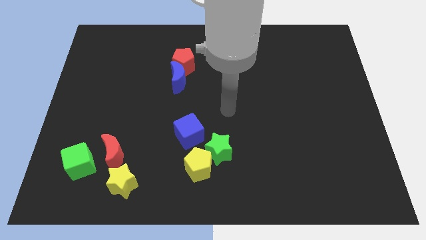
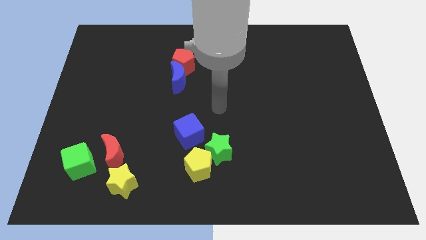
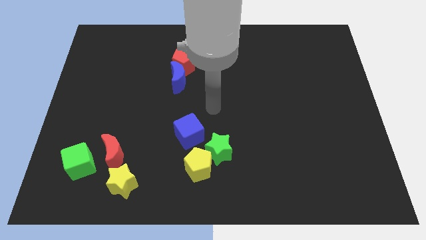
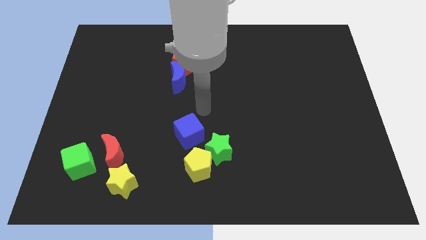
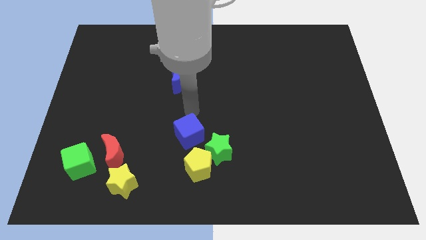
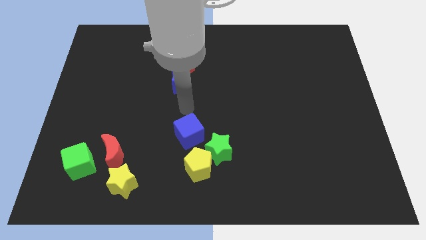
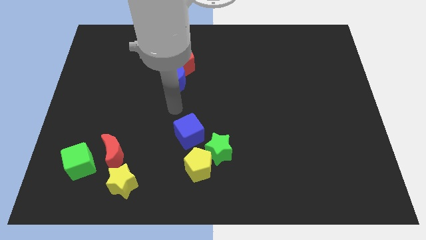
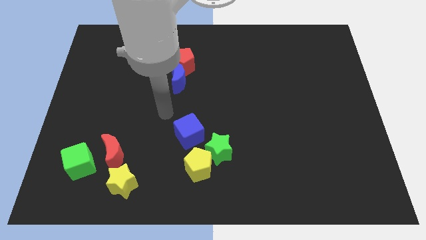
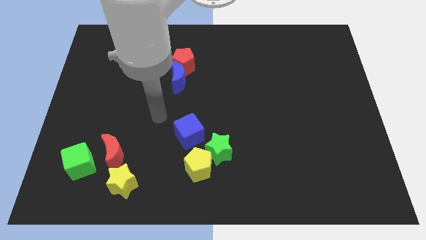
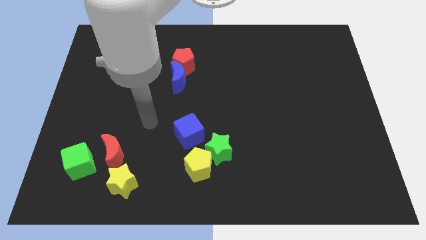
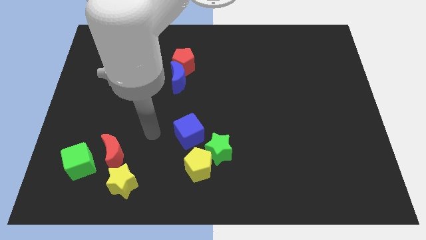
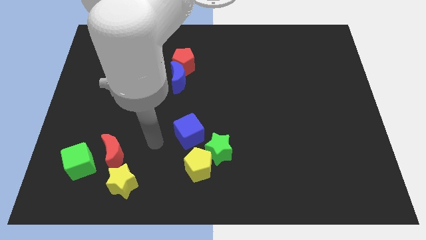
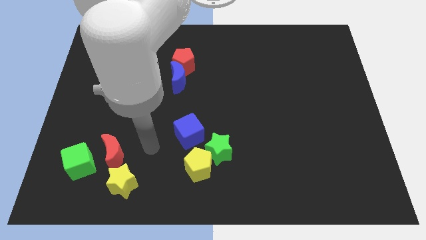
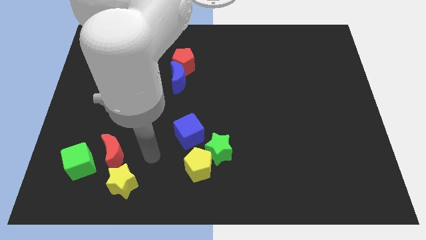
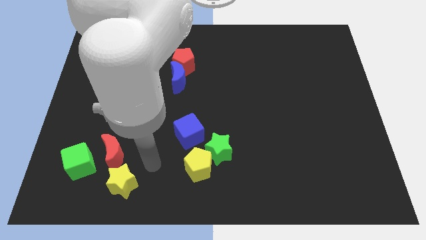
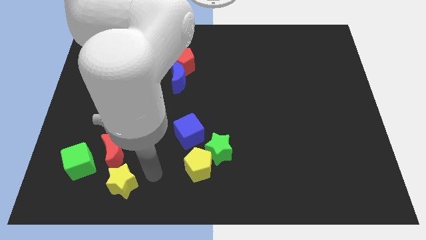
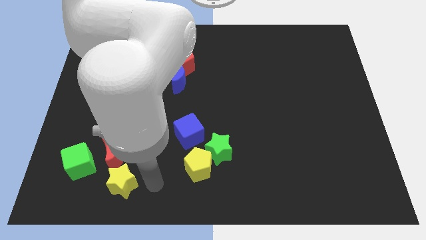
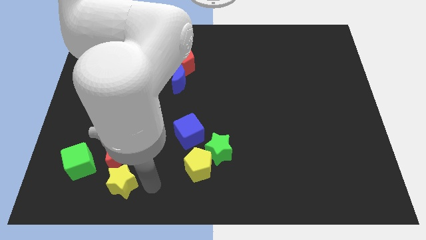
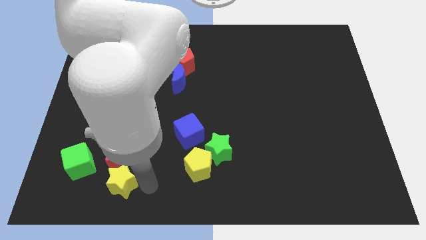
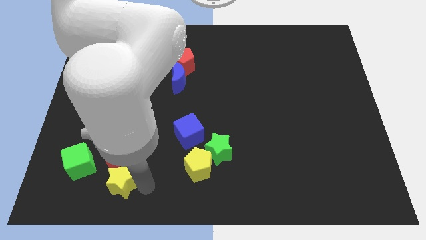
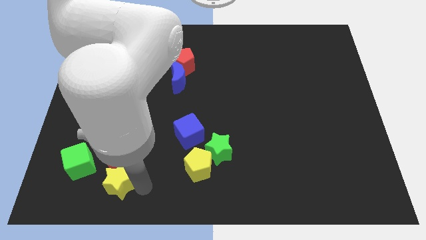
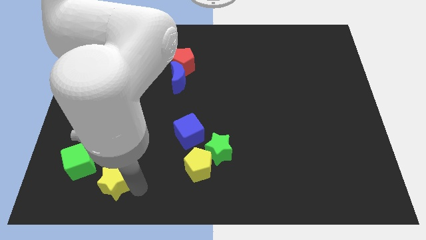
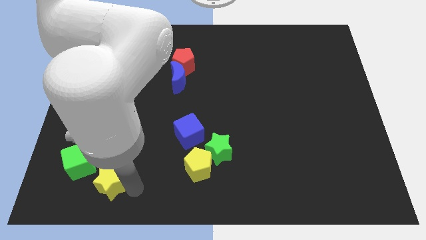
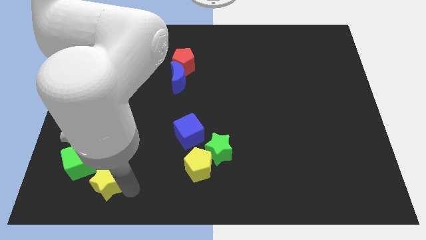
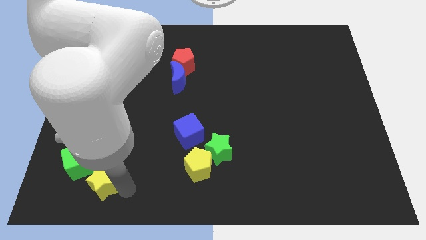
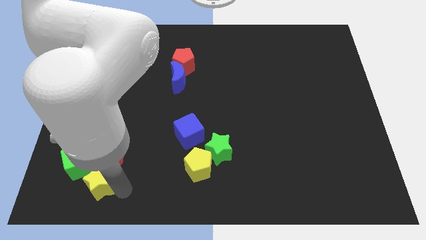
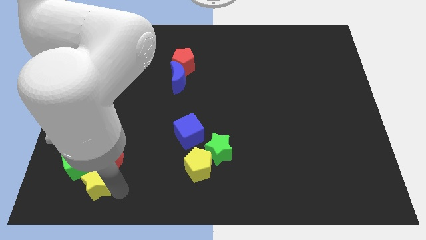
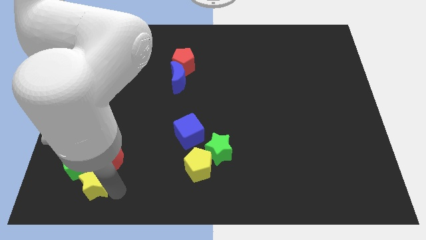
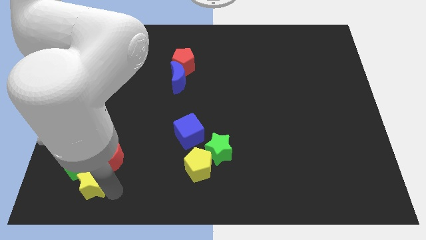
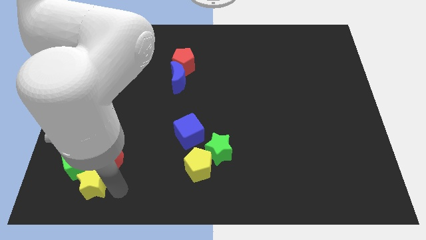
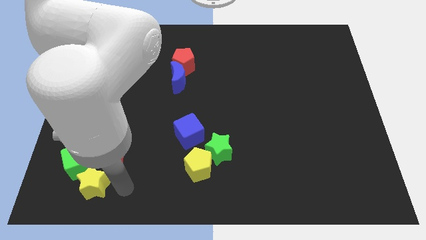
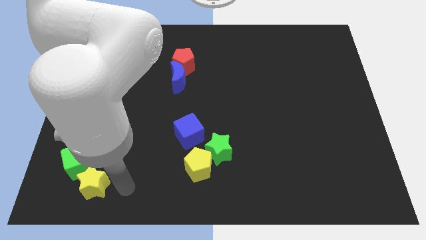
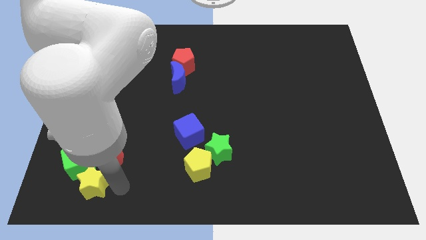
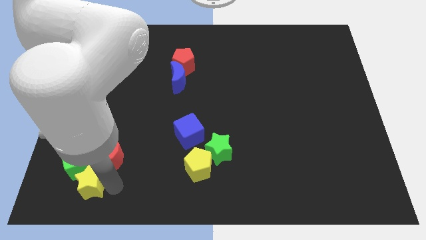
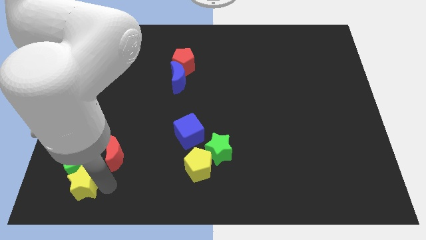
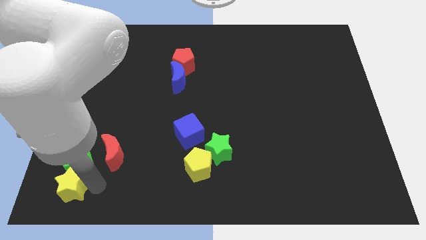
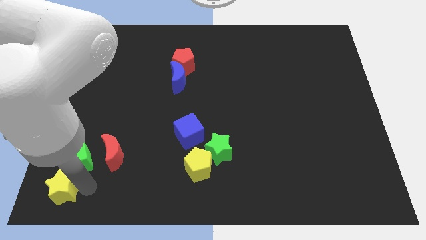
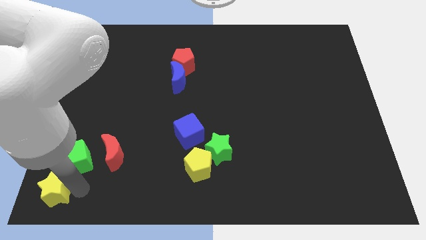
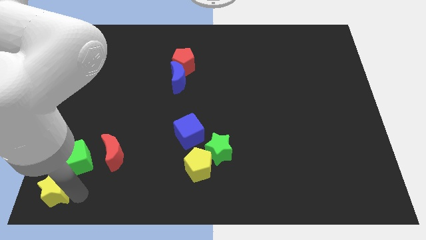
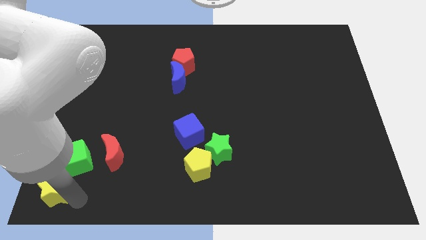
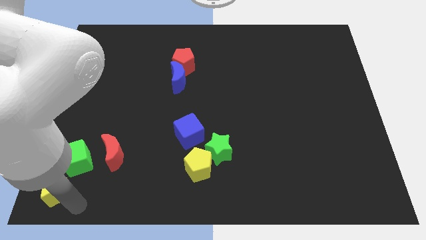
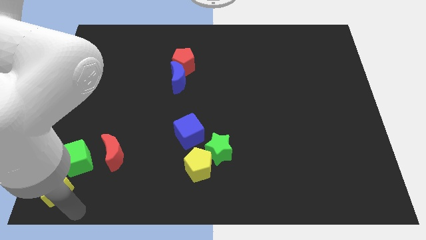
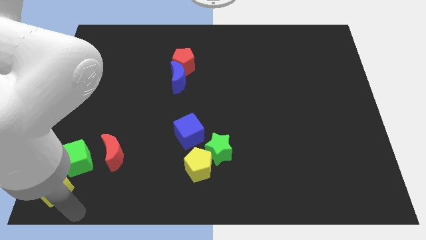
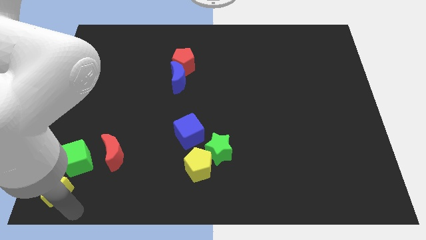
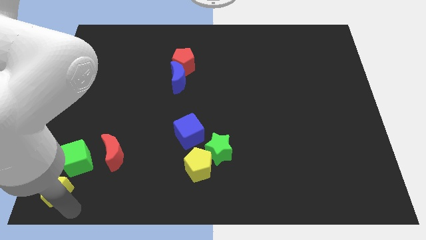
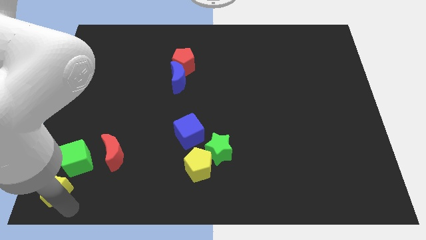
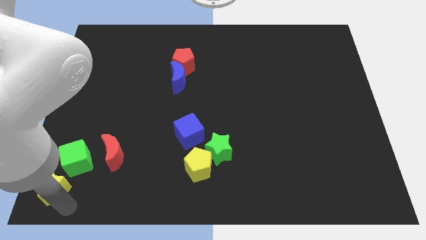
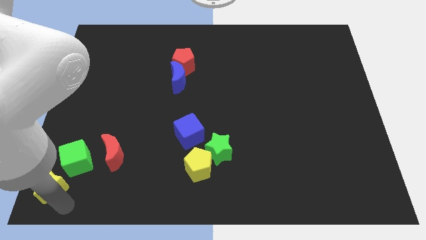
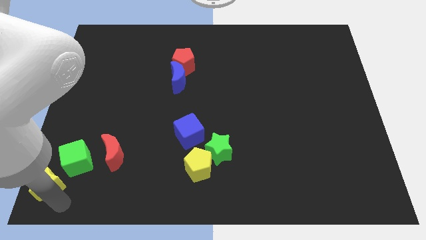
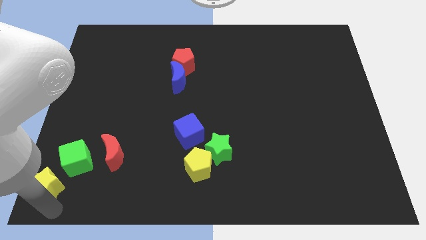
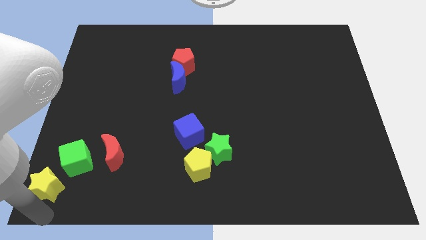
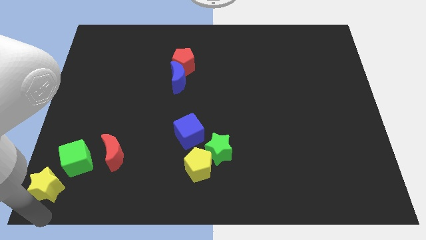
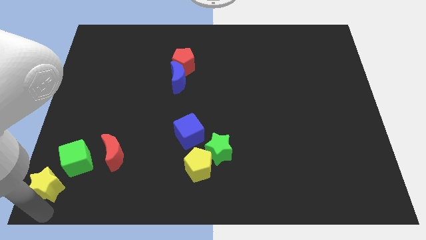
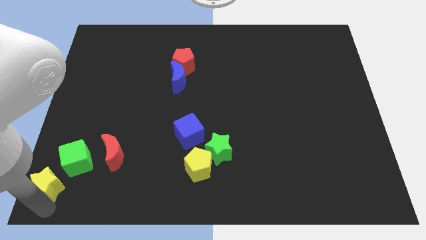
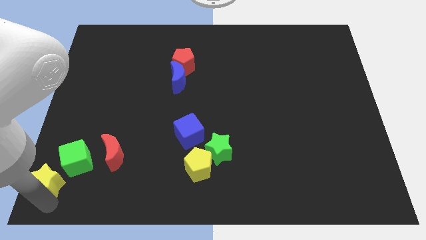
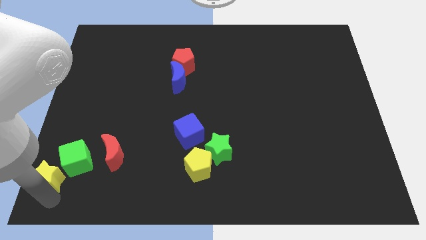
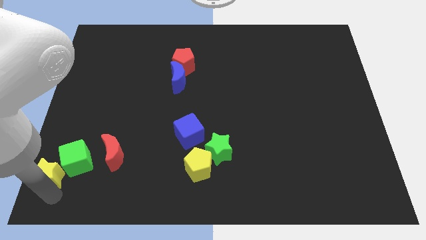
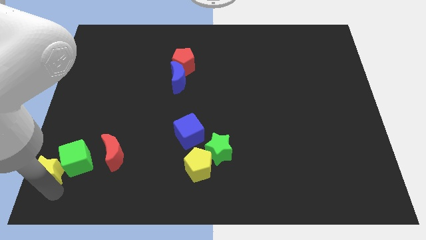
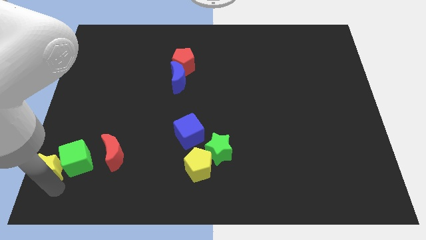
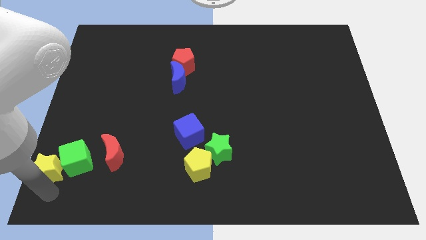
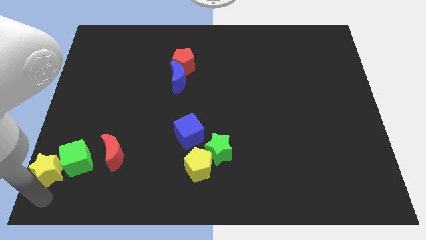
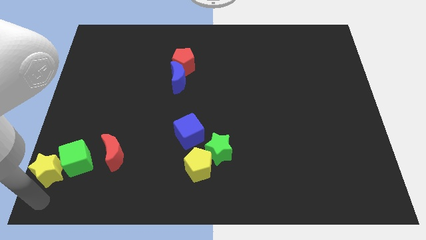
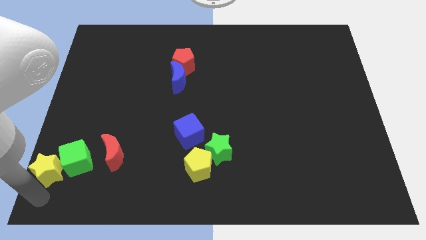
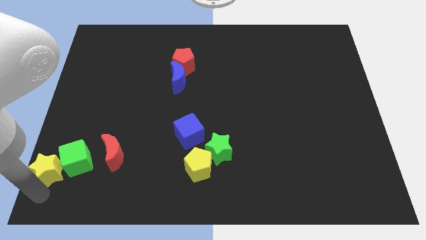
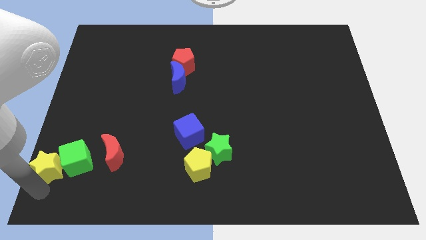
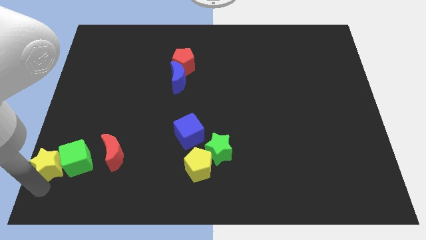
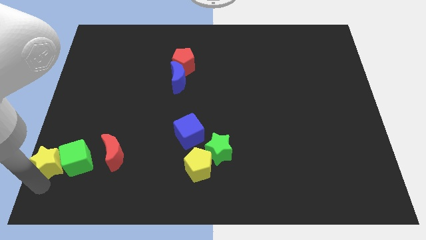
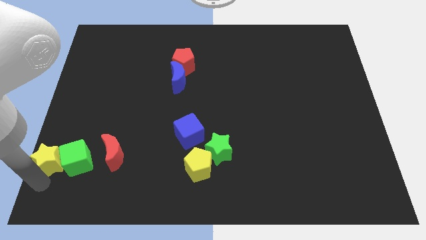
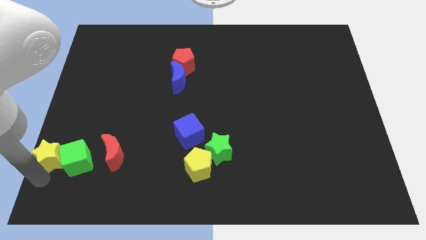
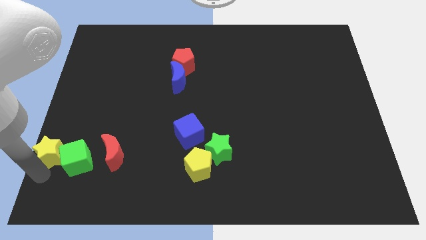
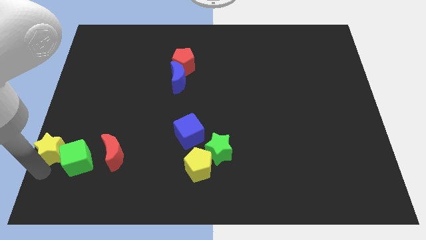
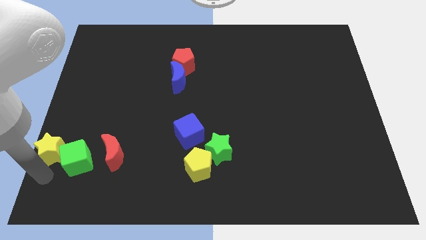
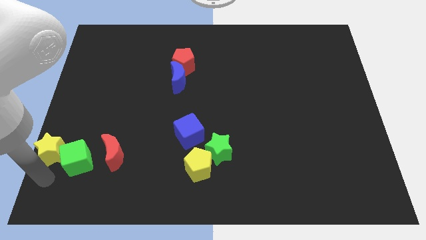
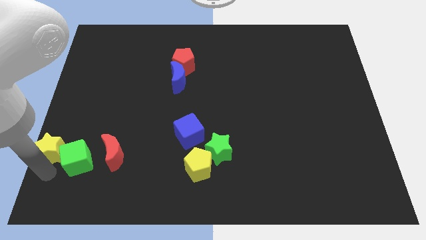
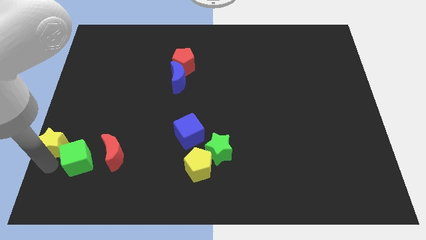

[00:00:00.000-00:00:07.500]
push the yellow star to the center left
